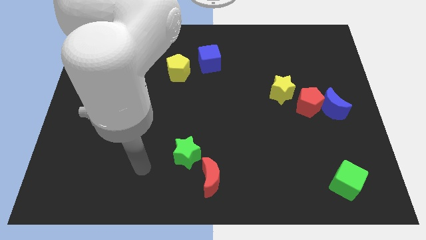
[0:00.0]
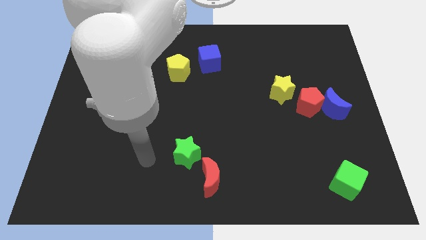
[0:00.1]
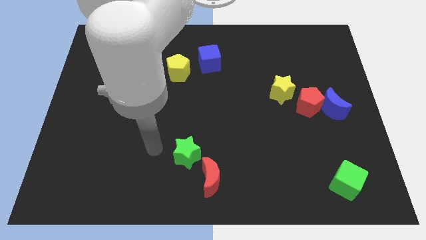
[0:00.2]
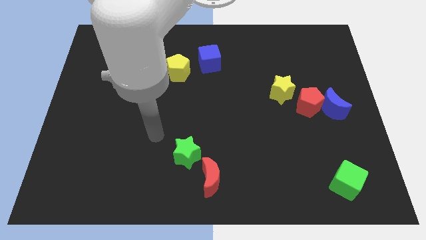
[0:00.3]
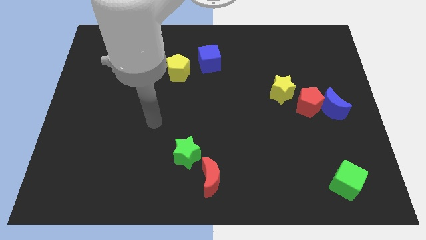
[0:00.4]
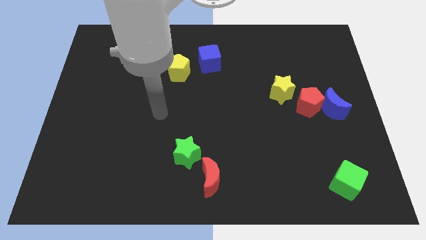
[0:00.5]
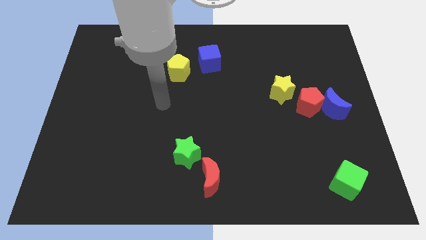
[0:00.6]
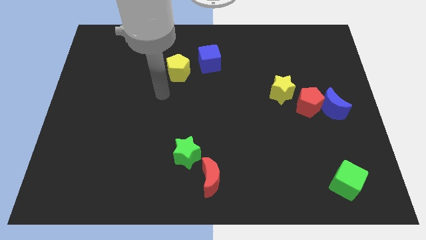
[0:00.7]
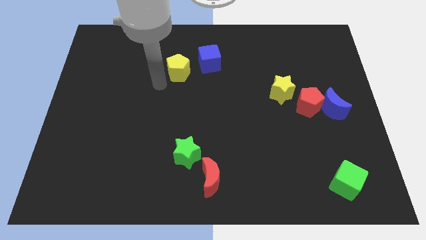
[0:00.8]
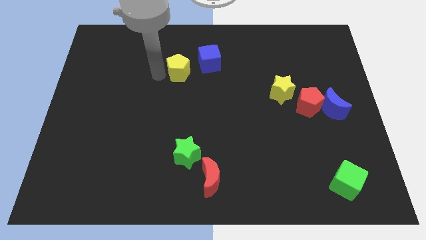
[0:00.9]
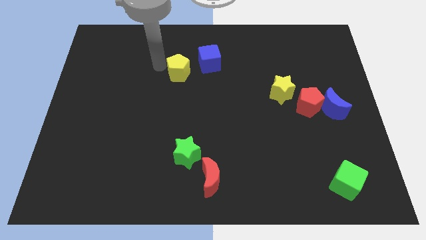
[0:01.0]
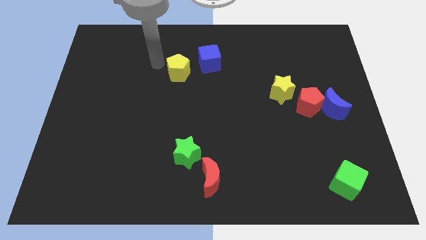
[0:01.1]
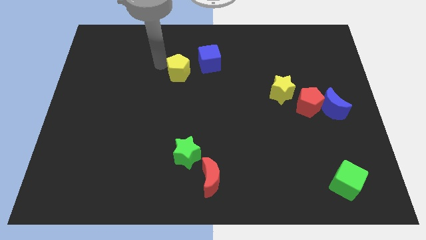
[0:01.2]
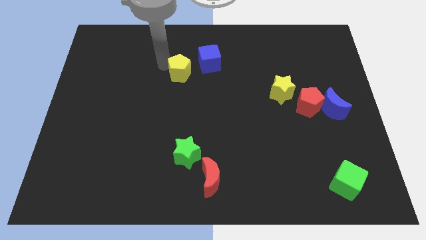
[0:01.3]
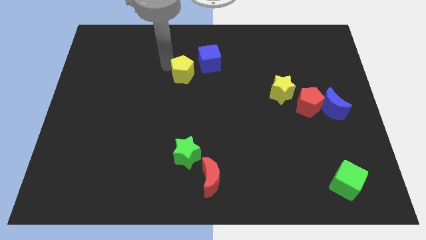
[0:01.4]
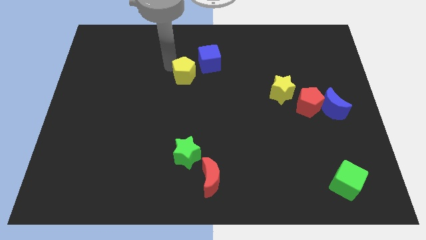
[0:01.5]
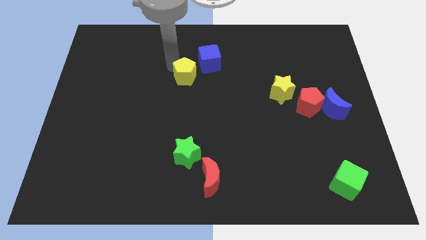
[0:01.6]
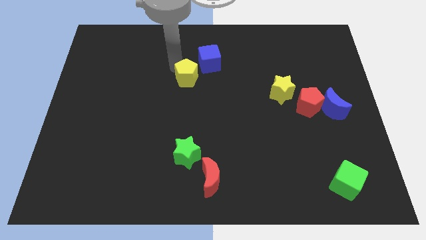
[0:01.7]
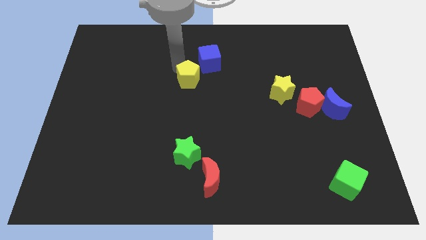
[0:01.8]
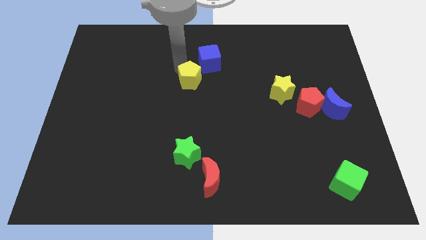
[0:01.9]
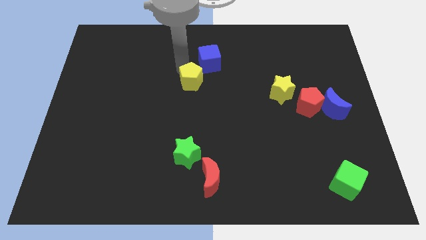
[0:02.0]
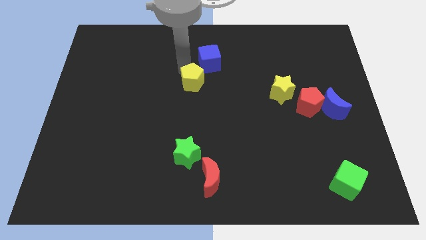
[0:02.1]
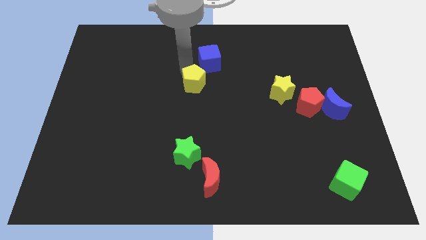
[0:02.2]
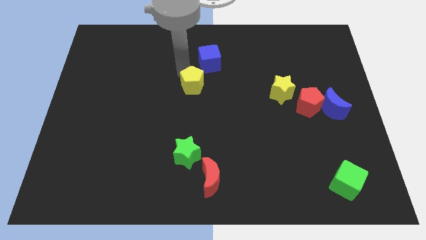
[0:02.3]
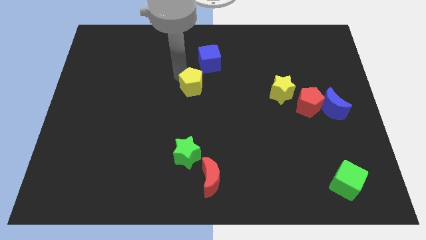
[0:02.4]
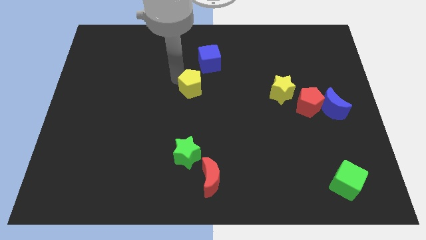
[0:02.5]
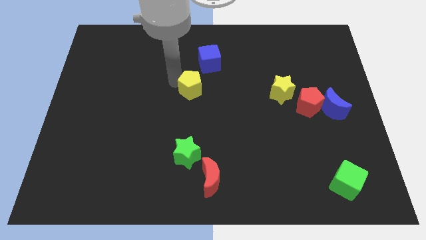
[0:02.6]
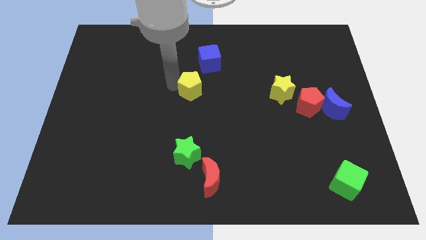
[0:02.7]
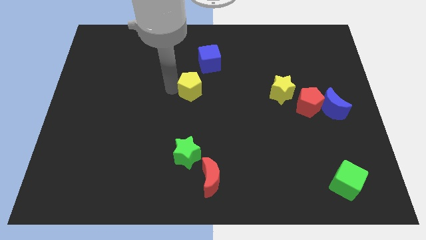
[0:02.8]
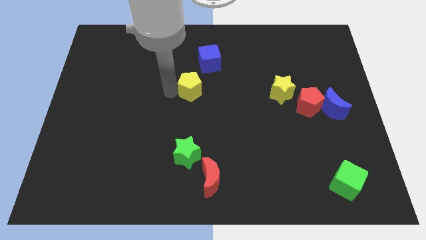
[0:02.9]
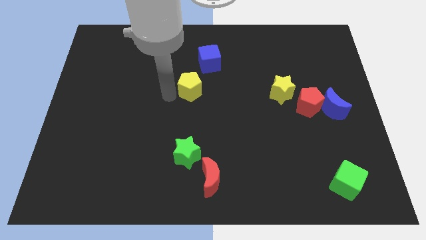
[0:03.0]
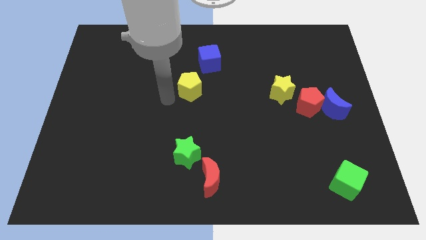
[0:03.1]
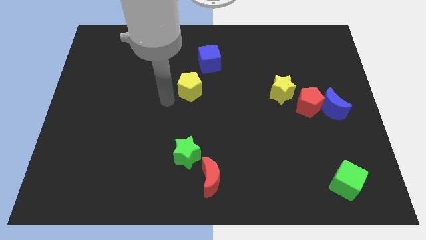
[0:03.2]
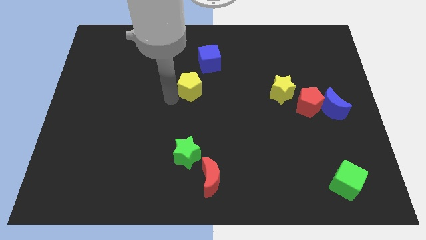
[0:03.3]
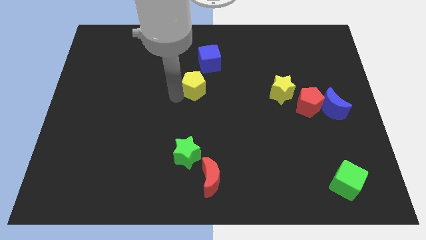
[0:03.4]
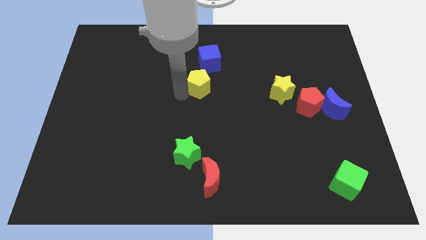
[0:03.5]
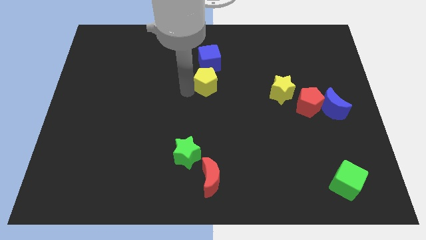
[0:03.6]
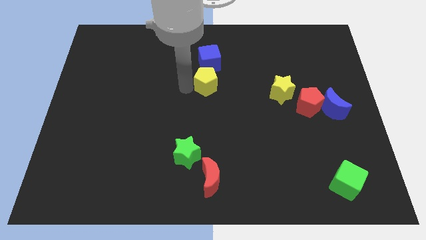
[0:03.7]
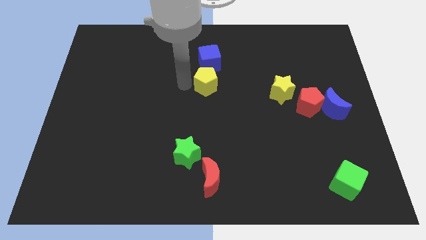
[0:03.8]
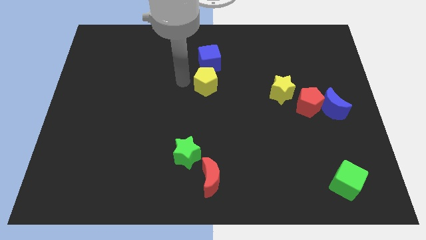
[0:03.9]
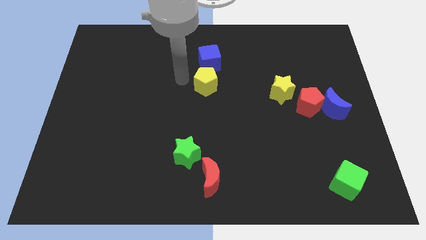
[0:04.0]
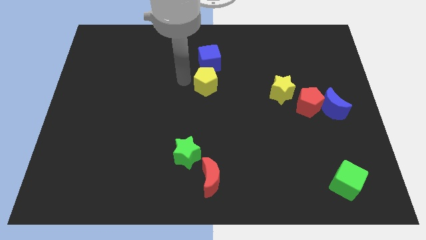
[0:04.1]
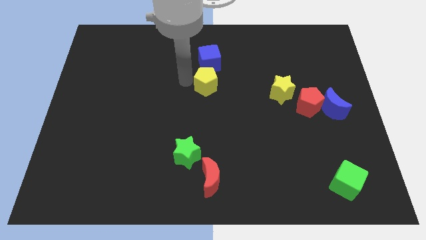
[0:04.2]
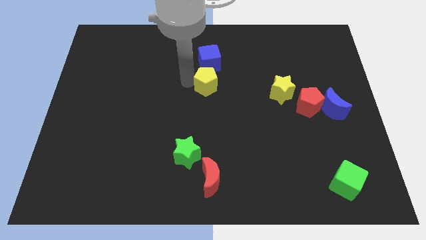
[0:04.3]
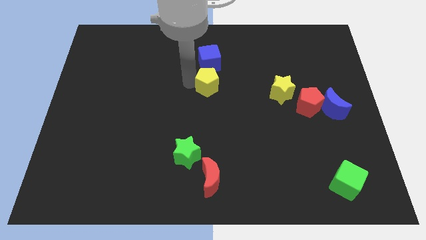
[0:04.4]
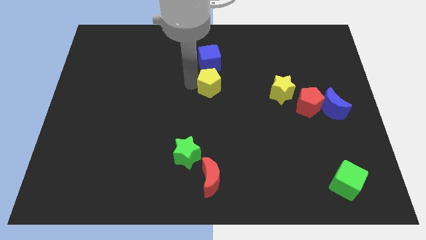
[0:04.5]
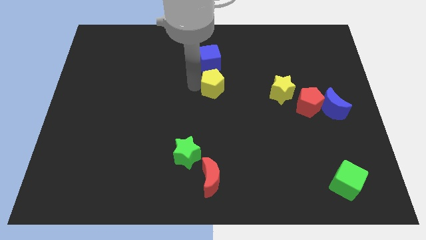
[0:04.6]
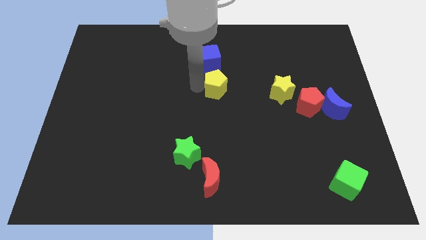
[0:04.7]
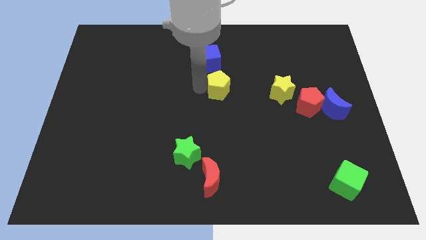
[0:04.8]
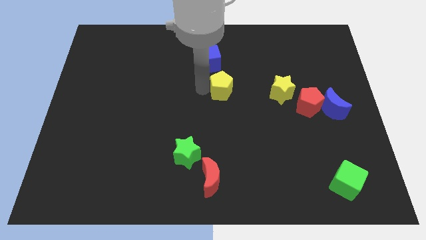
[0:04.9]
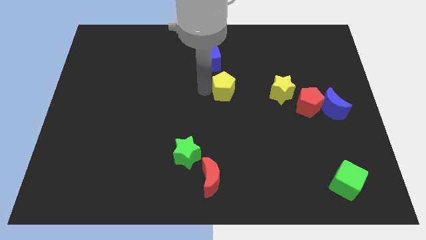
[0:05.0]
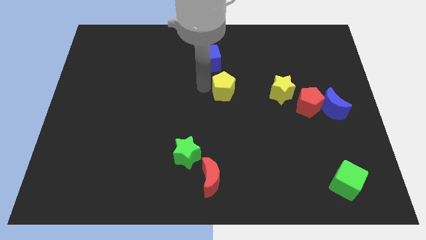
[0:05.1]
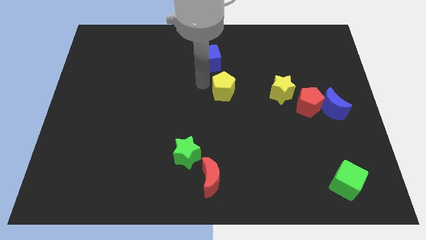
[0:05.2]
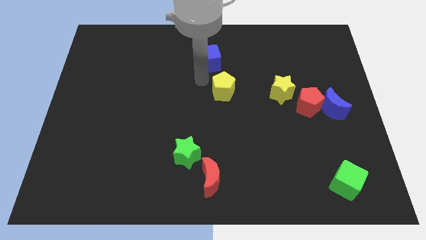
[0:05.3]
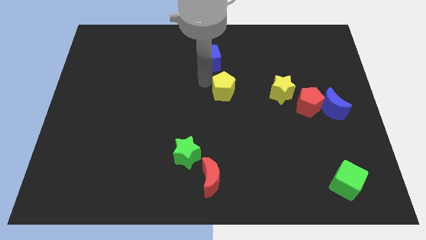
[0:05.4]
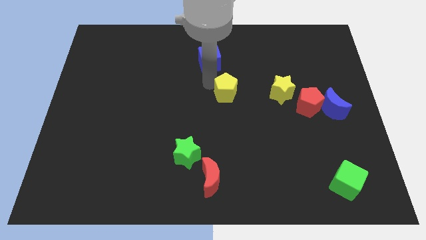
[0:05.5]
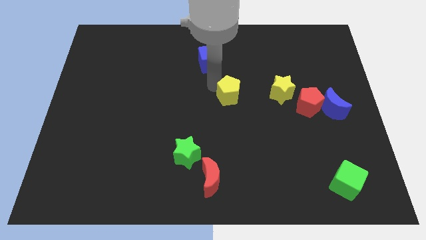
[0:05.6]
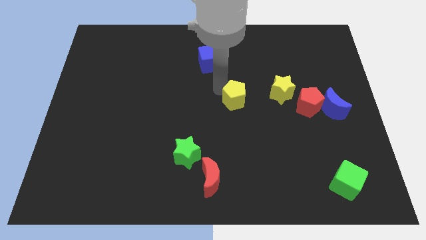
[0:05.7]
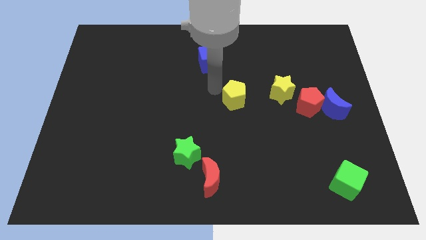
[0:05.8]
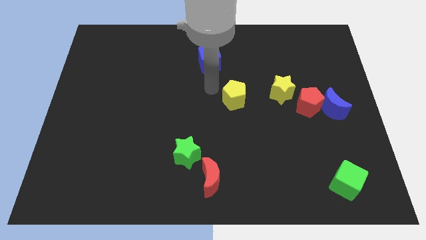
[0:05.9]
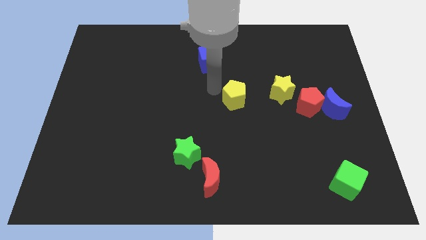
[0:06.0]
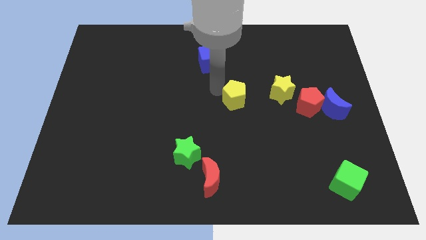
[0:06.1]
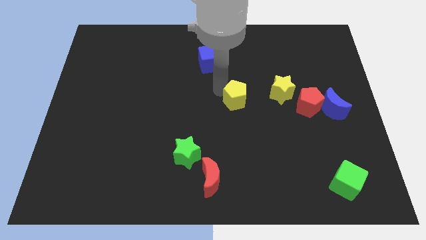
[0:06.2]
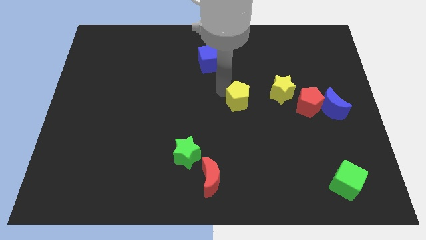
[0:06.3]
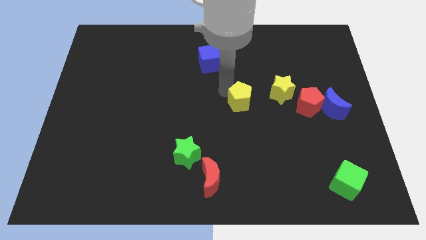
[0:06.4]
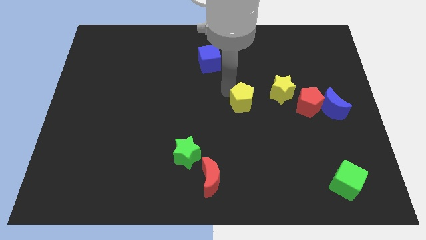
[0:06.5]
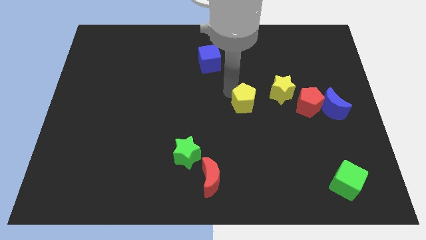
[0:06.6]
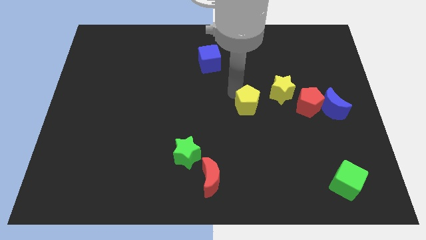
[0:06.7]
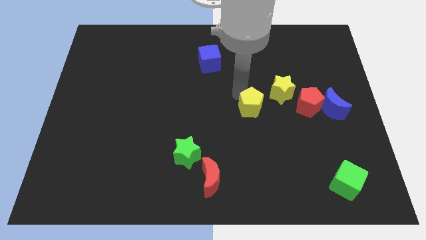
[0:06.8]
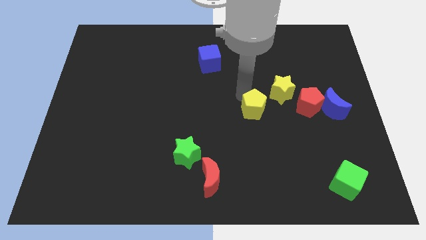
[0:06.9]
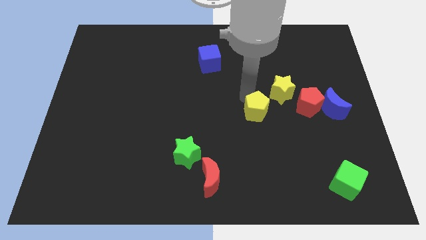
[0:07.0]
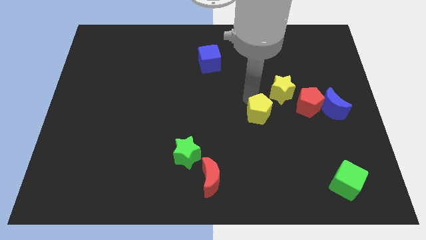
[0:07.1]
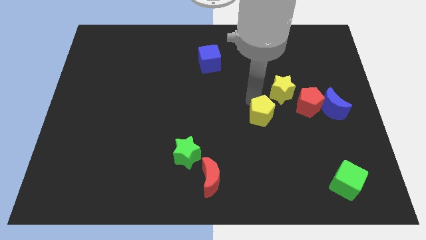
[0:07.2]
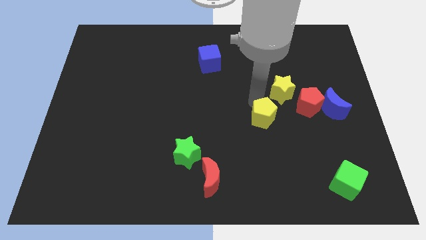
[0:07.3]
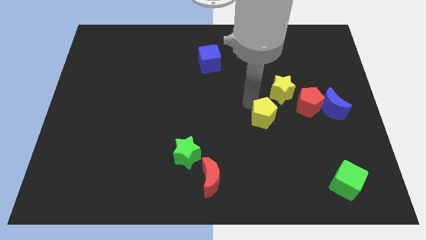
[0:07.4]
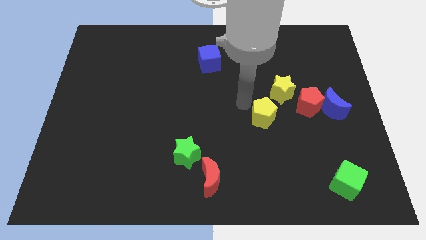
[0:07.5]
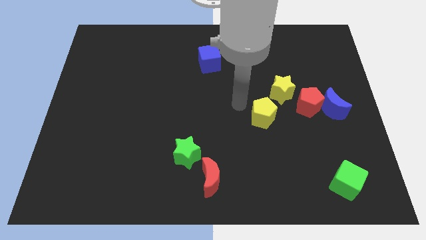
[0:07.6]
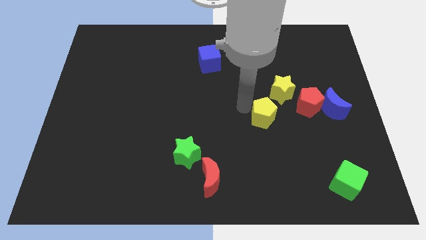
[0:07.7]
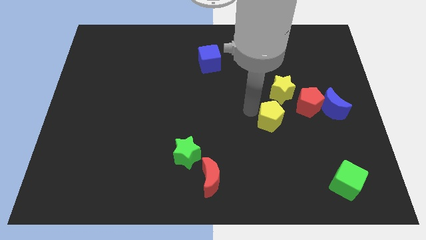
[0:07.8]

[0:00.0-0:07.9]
push the yellow pentagon to the bottom of the yellow star

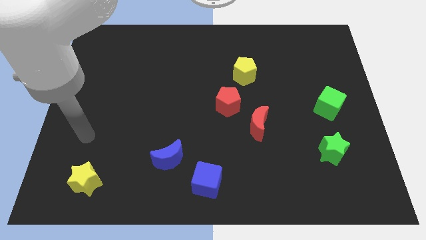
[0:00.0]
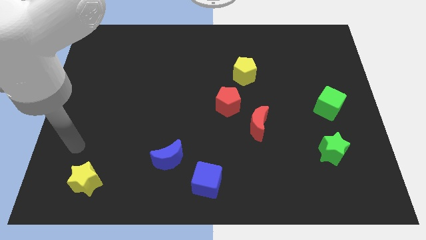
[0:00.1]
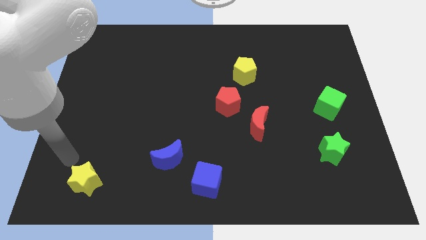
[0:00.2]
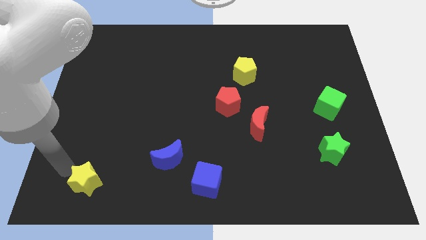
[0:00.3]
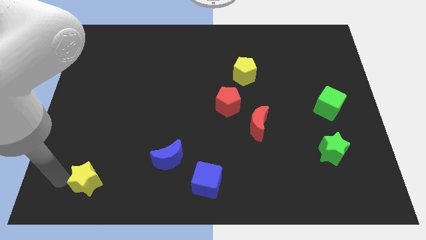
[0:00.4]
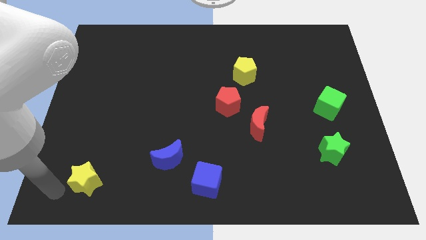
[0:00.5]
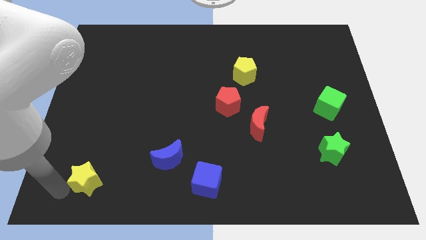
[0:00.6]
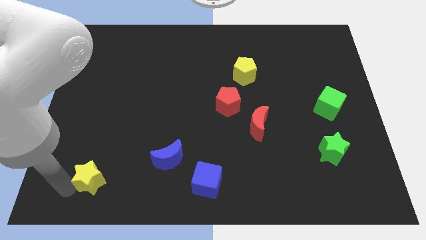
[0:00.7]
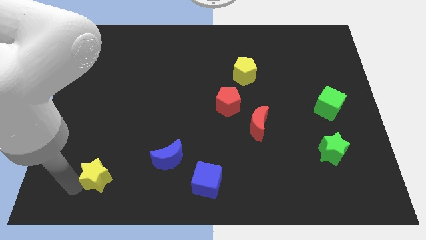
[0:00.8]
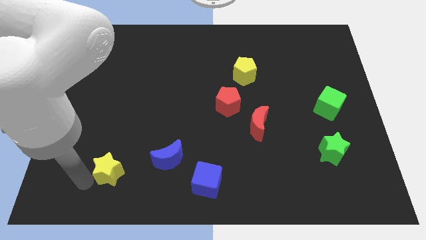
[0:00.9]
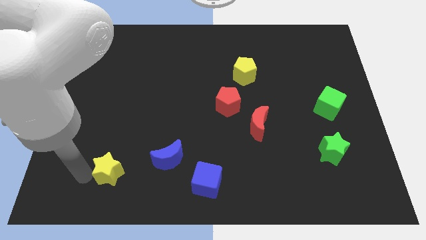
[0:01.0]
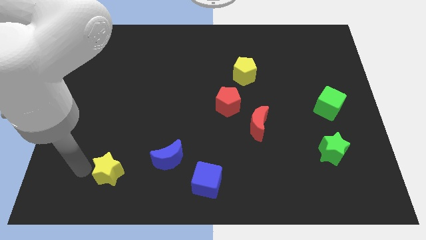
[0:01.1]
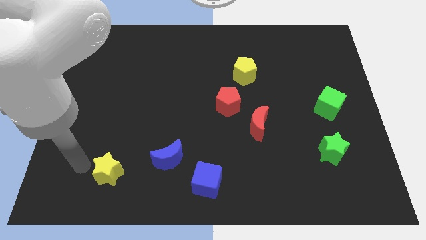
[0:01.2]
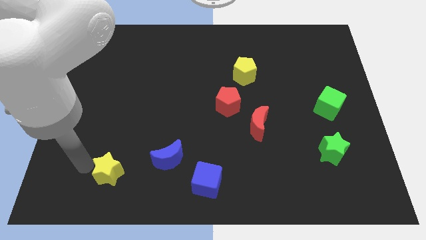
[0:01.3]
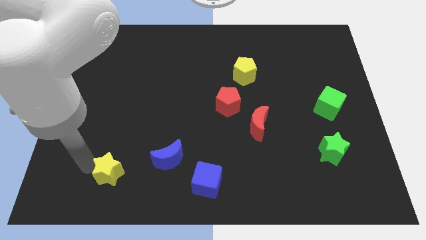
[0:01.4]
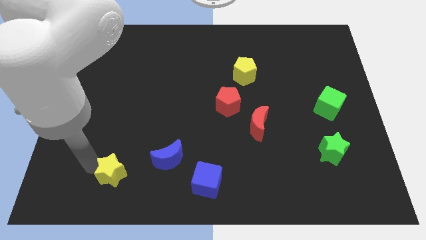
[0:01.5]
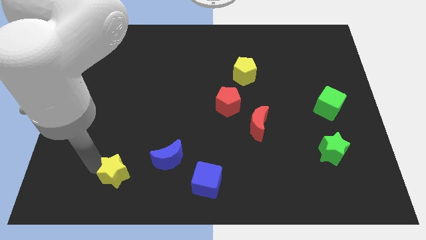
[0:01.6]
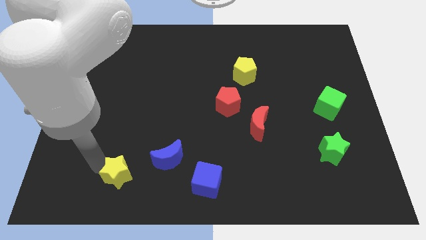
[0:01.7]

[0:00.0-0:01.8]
move the yellow star to the bottom left of the blue moon
